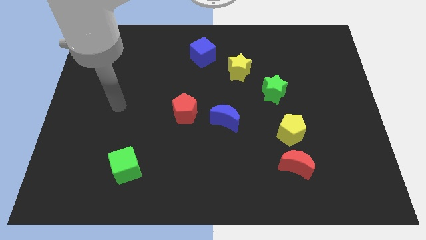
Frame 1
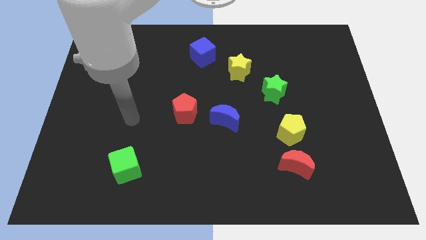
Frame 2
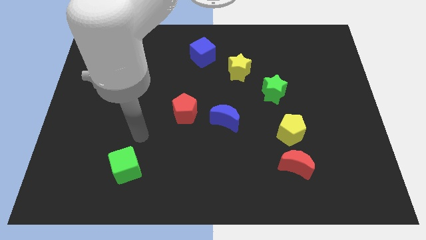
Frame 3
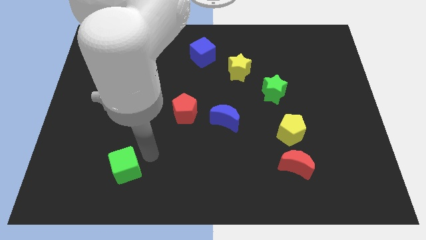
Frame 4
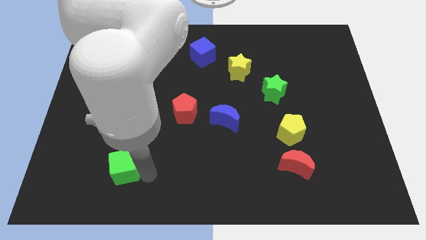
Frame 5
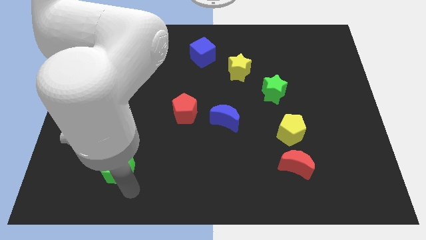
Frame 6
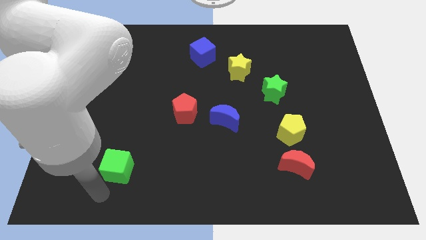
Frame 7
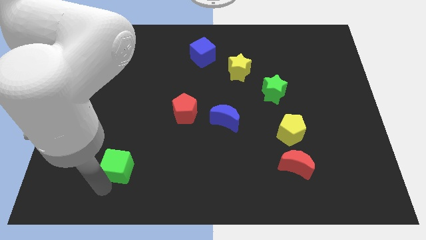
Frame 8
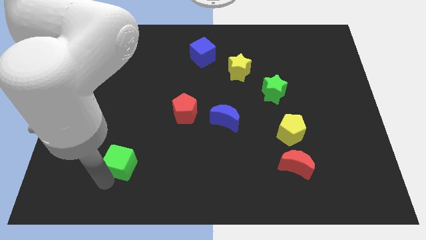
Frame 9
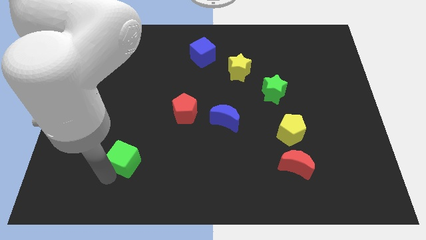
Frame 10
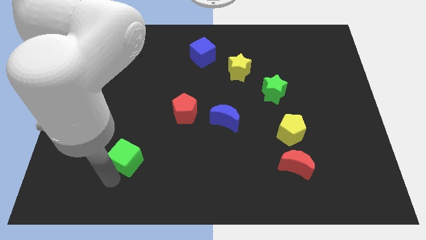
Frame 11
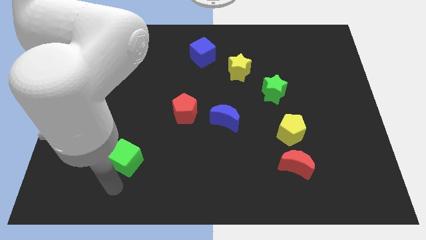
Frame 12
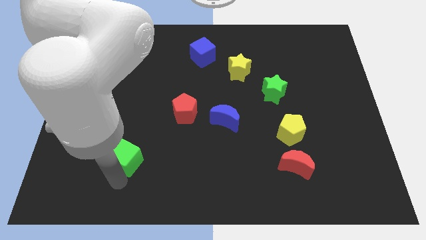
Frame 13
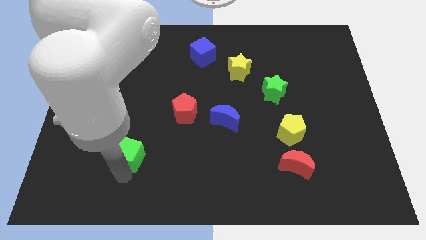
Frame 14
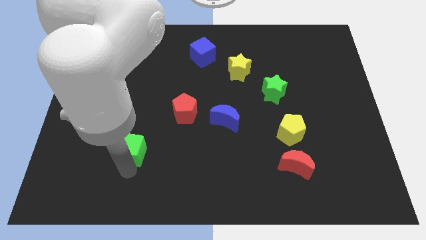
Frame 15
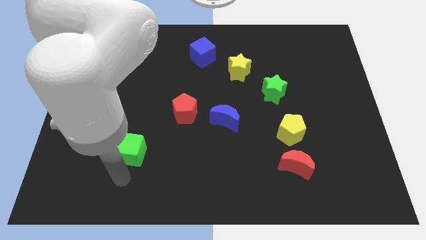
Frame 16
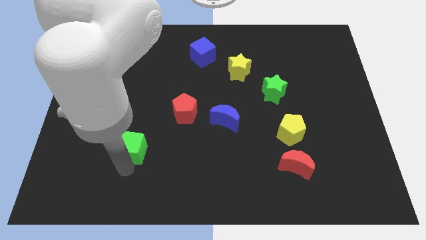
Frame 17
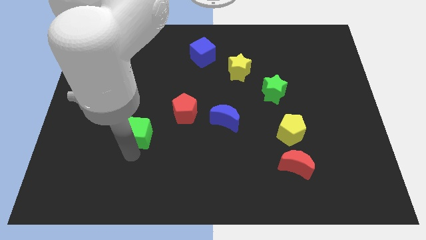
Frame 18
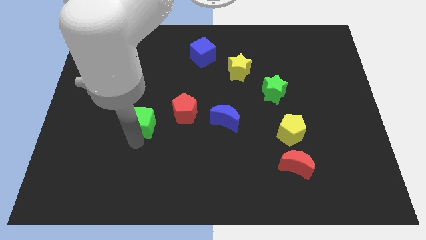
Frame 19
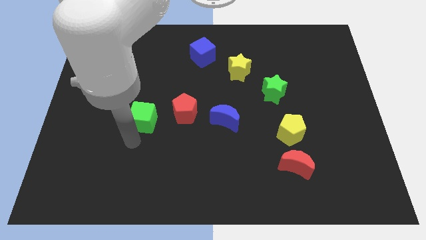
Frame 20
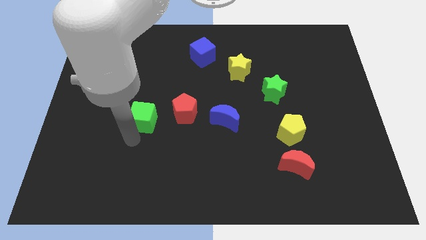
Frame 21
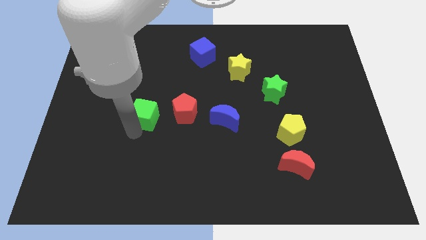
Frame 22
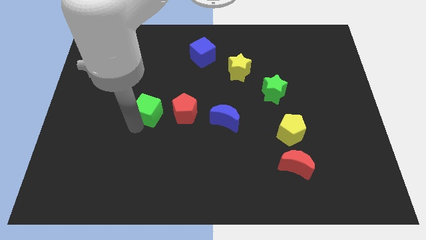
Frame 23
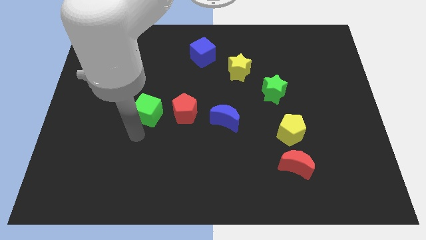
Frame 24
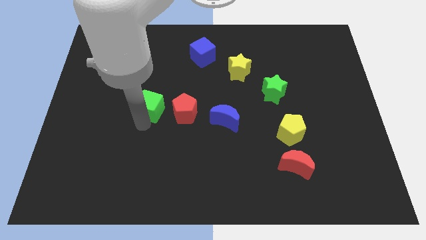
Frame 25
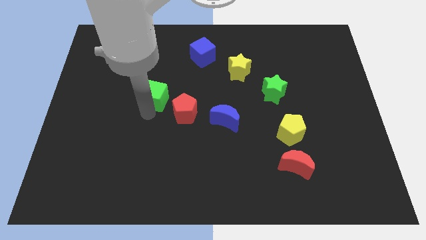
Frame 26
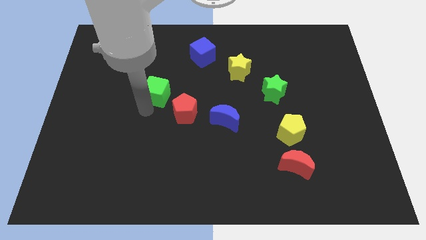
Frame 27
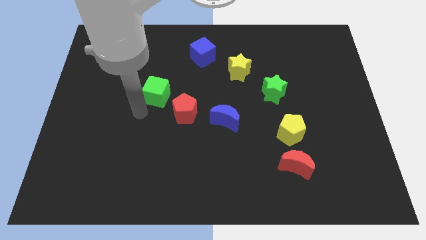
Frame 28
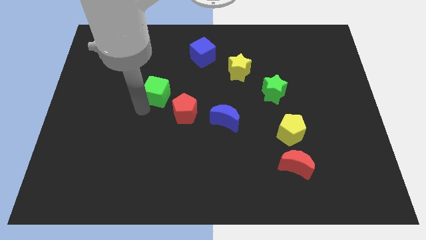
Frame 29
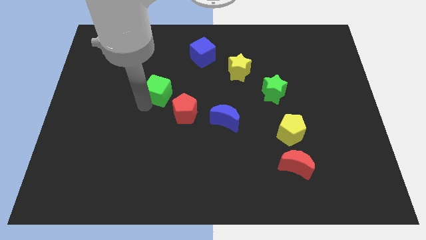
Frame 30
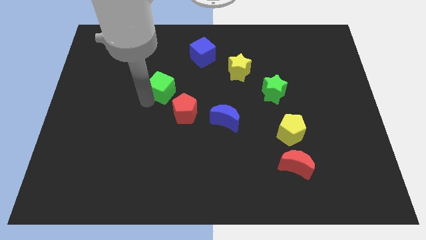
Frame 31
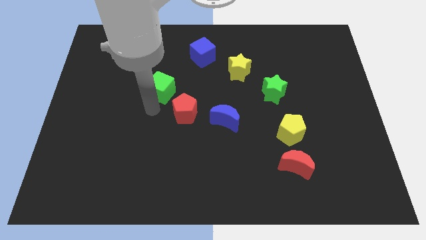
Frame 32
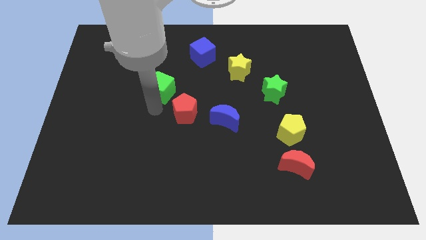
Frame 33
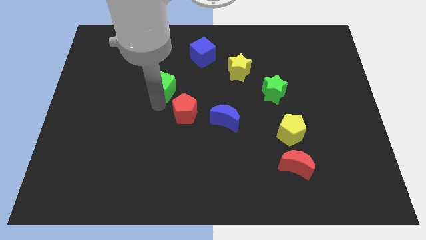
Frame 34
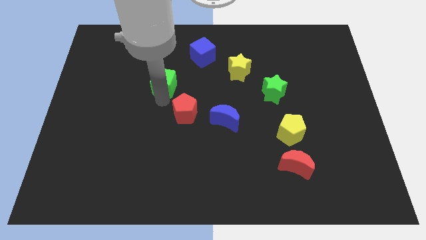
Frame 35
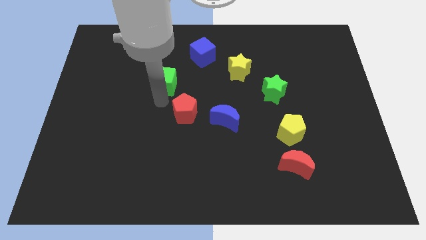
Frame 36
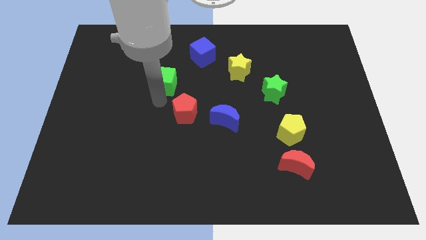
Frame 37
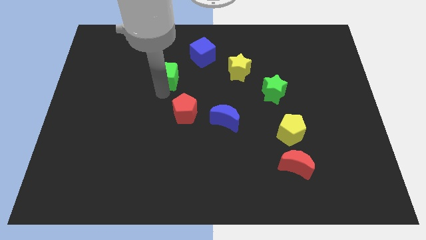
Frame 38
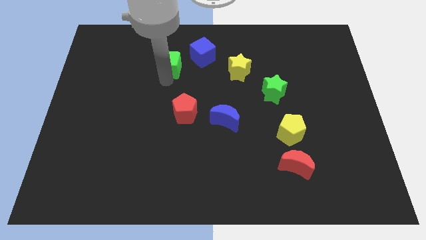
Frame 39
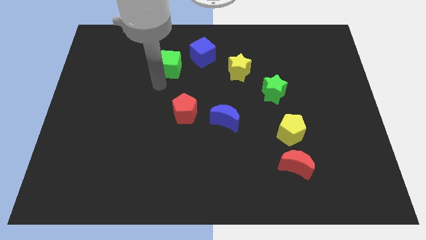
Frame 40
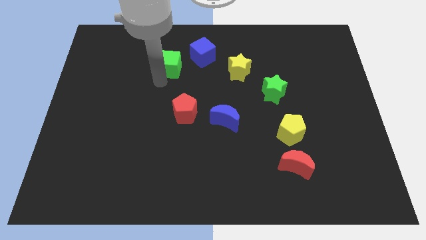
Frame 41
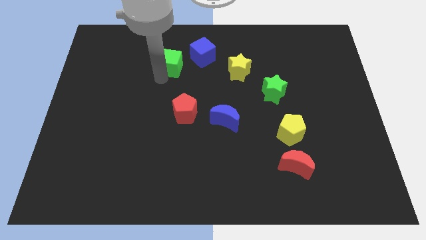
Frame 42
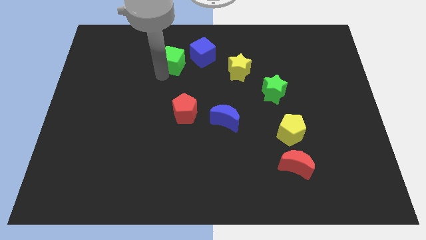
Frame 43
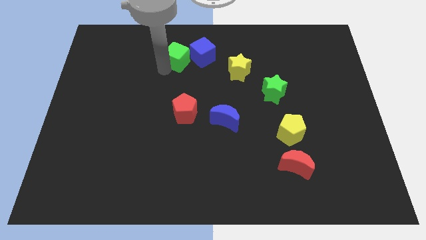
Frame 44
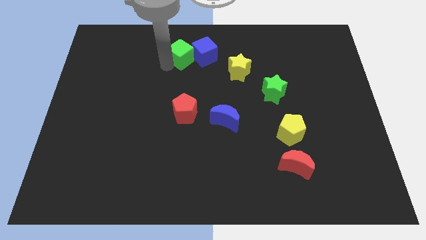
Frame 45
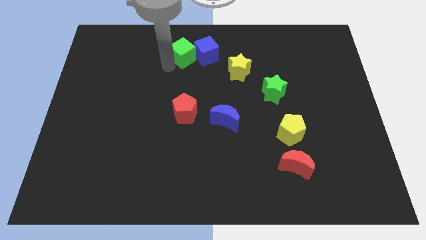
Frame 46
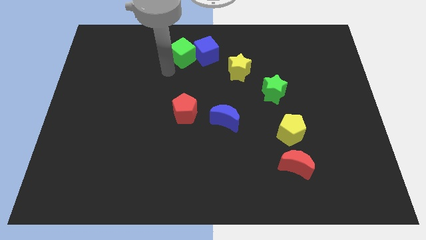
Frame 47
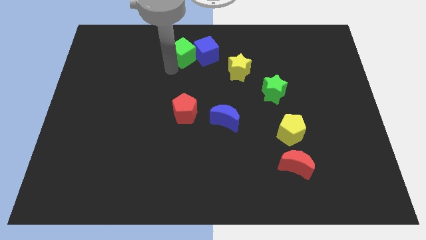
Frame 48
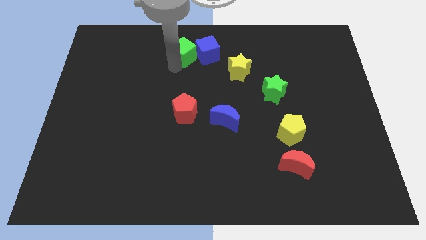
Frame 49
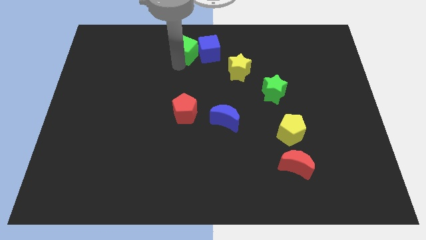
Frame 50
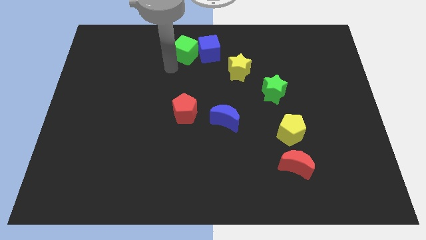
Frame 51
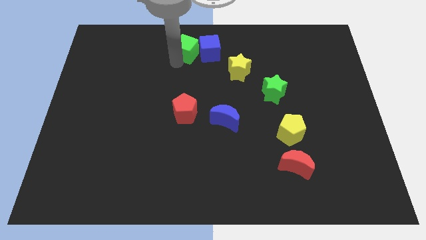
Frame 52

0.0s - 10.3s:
slide the green cube to the towards your base

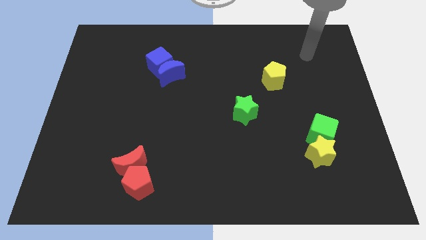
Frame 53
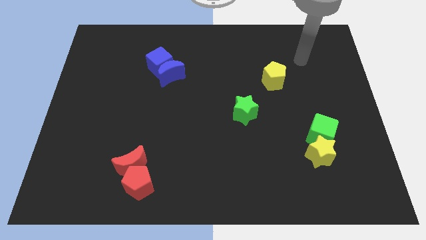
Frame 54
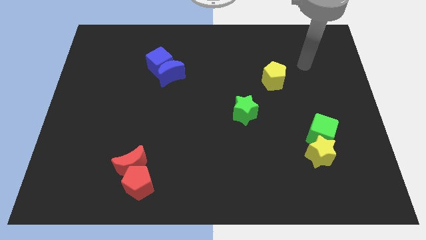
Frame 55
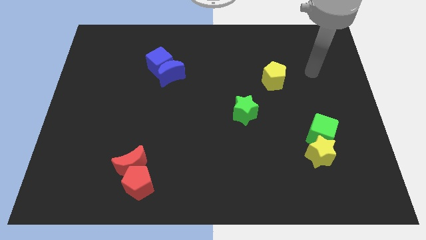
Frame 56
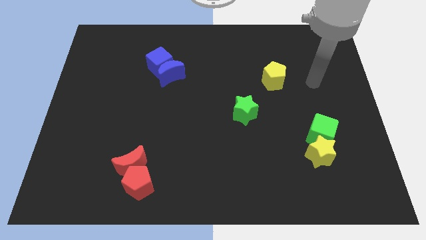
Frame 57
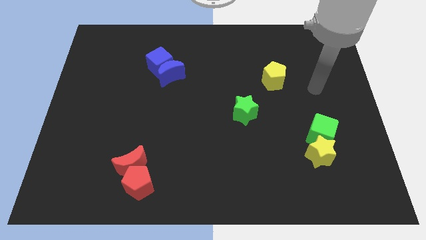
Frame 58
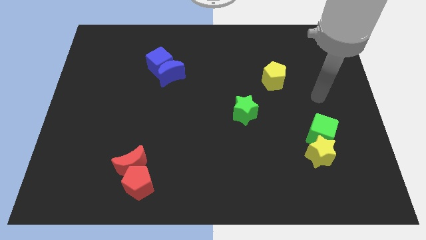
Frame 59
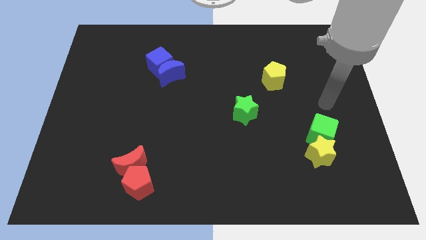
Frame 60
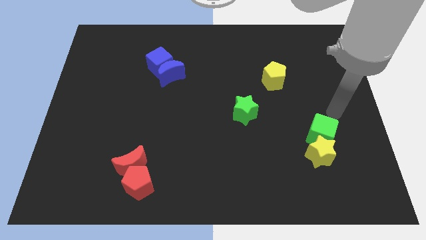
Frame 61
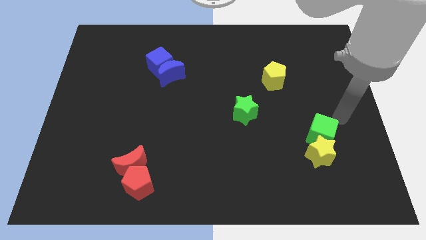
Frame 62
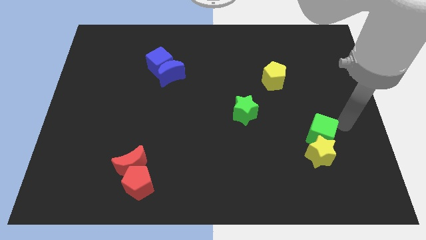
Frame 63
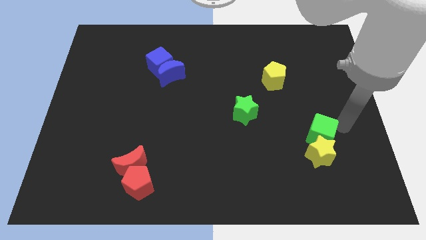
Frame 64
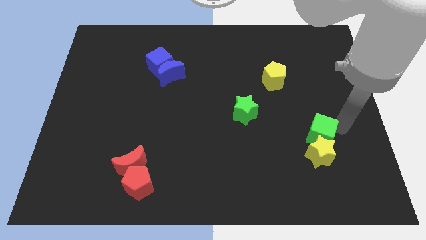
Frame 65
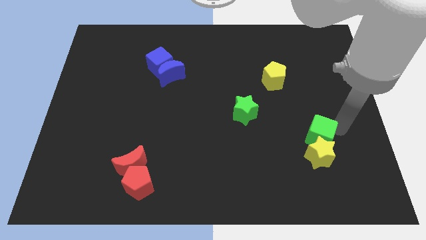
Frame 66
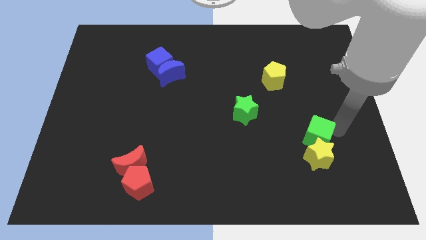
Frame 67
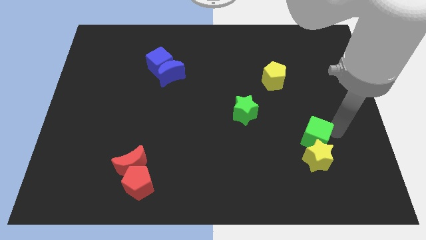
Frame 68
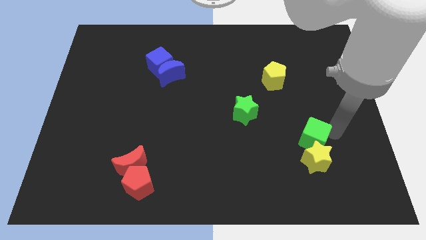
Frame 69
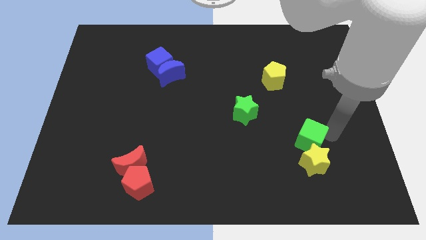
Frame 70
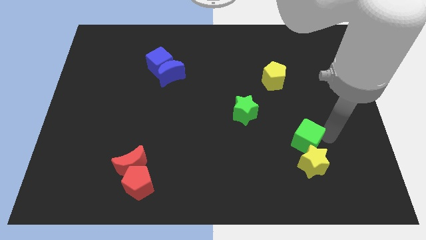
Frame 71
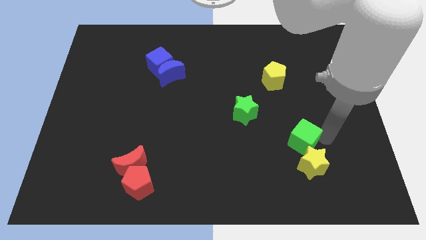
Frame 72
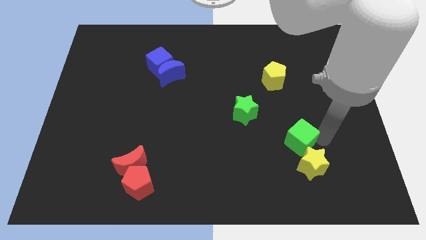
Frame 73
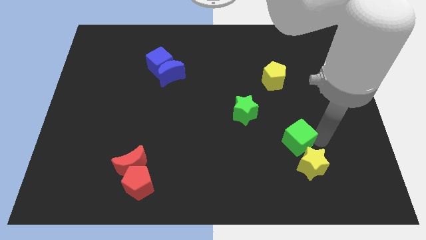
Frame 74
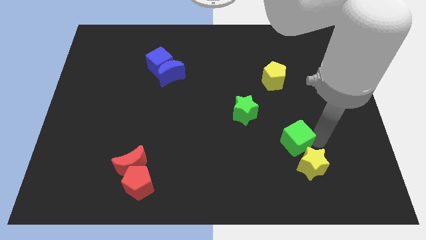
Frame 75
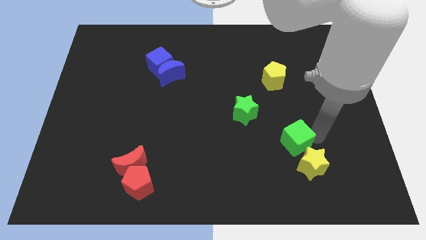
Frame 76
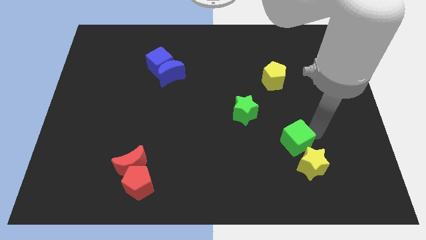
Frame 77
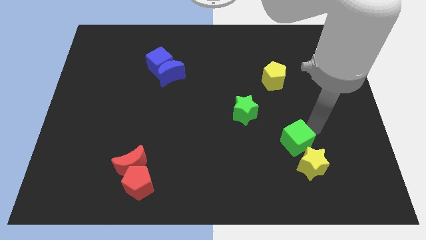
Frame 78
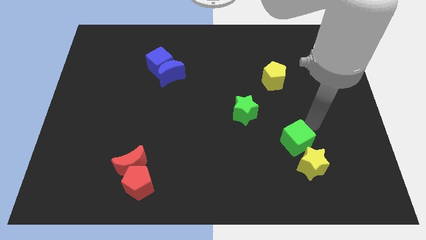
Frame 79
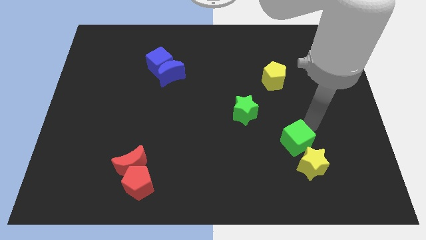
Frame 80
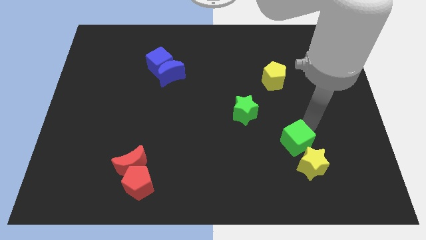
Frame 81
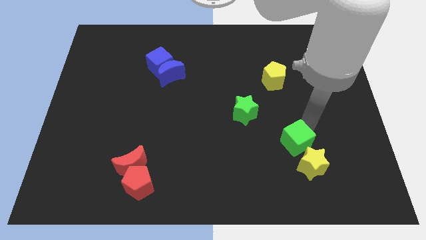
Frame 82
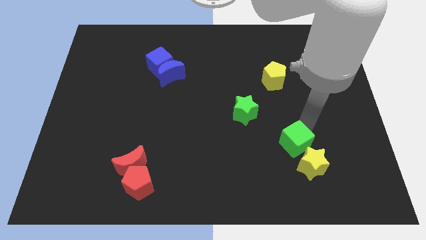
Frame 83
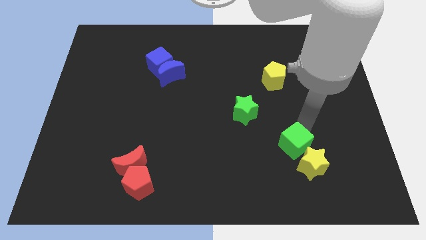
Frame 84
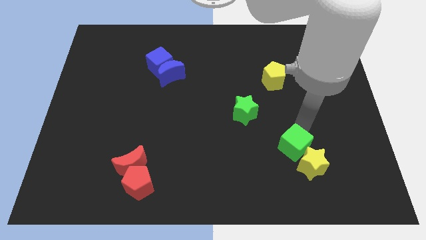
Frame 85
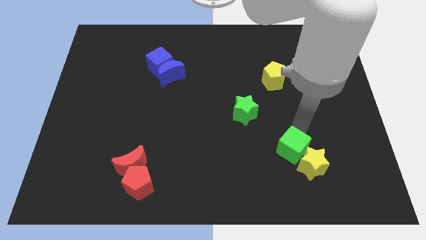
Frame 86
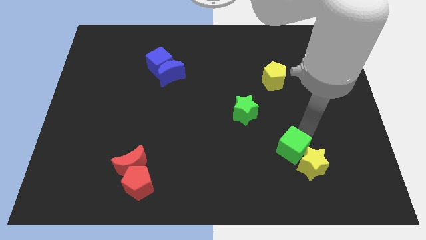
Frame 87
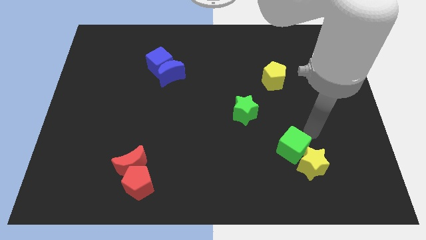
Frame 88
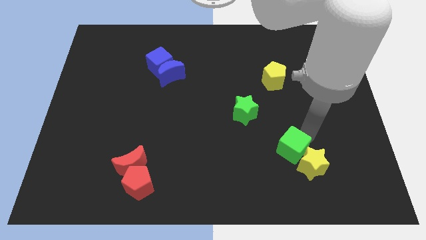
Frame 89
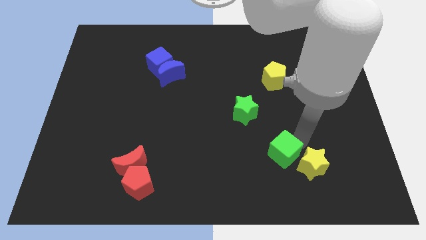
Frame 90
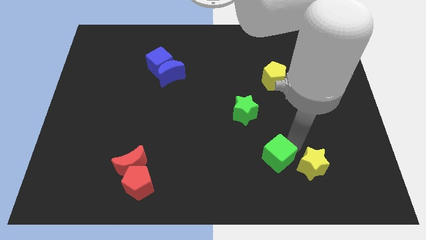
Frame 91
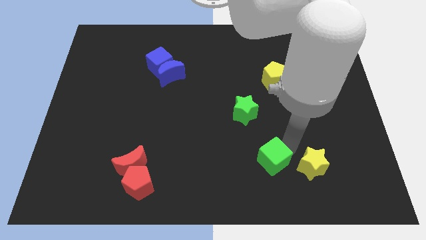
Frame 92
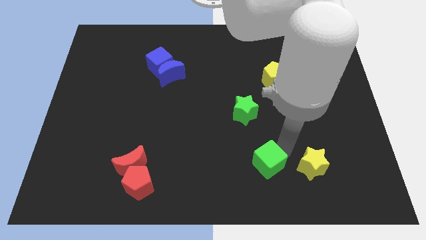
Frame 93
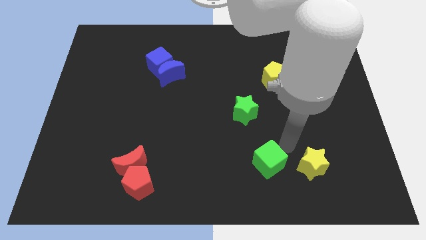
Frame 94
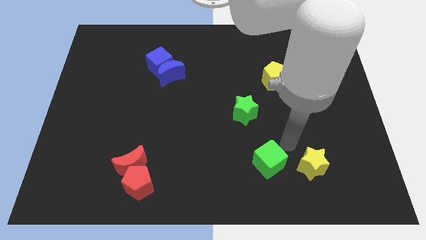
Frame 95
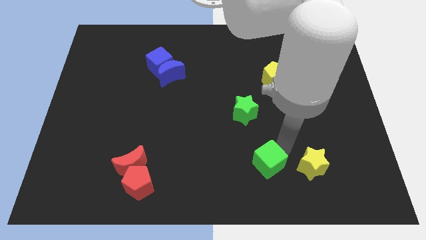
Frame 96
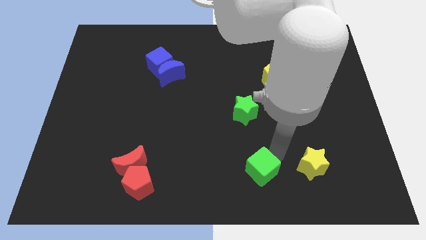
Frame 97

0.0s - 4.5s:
move the green cube to the bottom side
